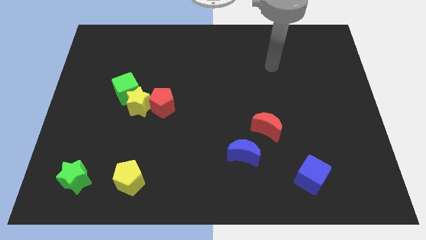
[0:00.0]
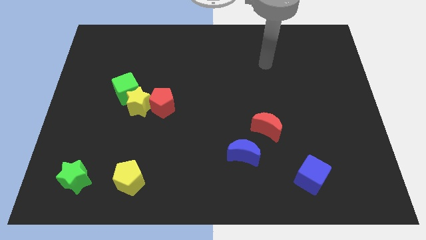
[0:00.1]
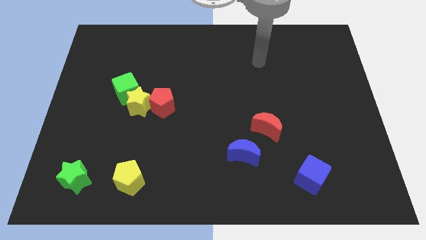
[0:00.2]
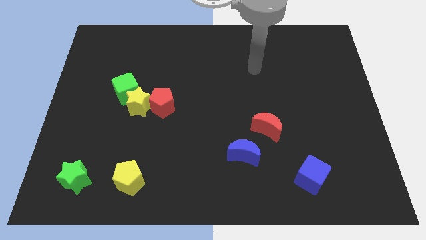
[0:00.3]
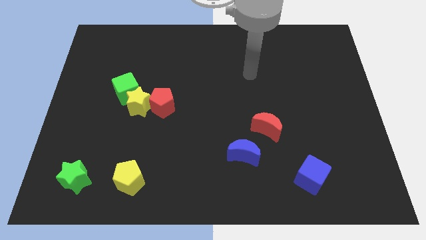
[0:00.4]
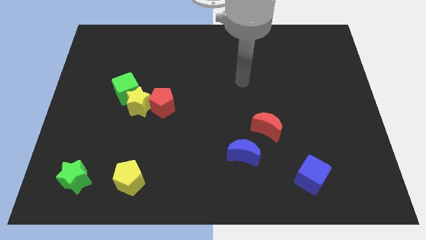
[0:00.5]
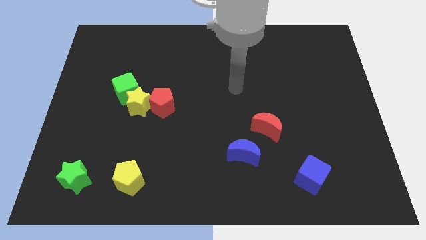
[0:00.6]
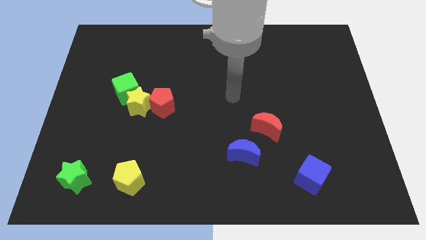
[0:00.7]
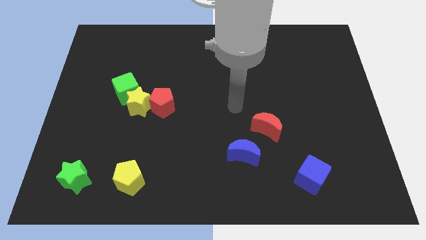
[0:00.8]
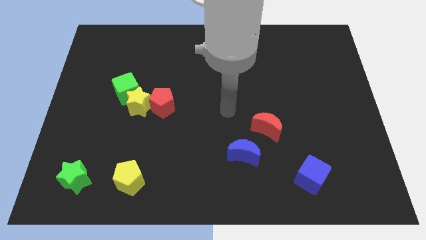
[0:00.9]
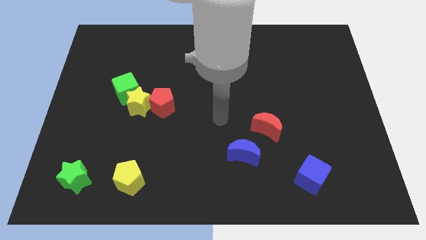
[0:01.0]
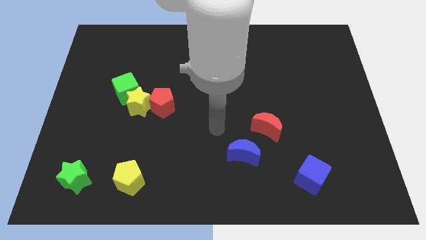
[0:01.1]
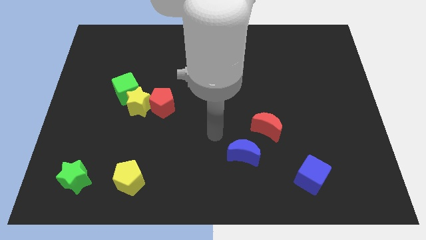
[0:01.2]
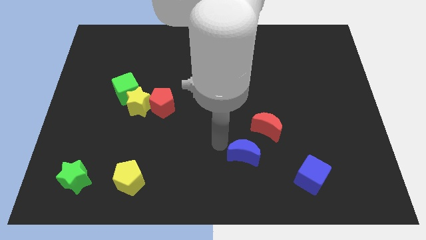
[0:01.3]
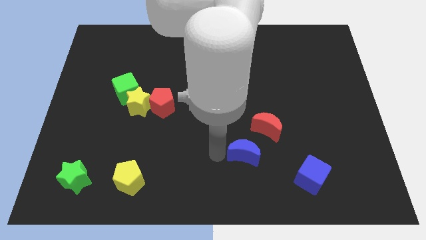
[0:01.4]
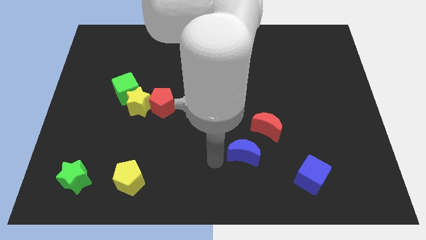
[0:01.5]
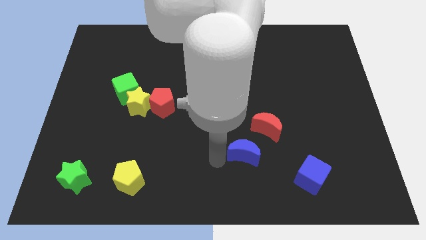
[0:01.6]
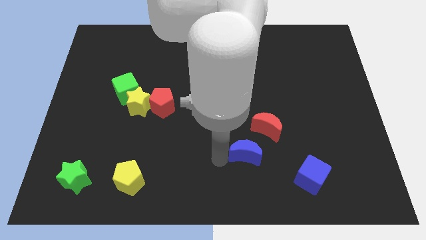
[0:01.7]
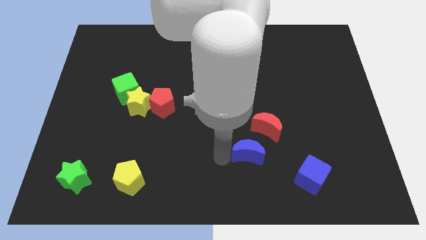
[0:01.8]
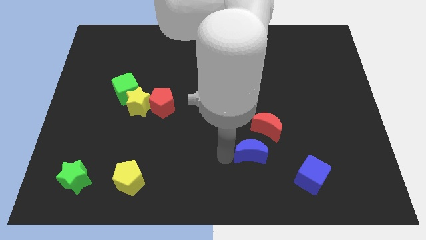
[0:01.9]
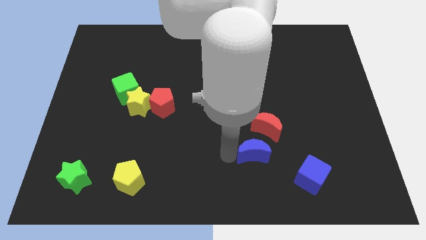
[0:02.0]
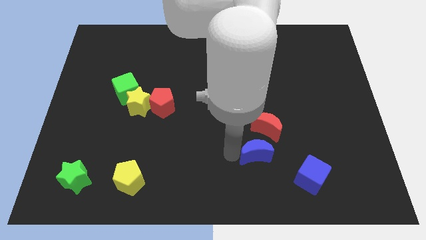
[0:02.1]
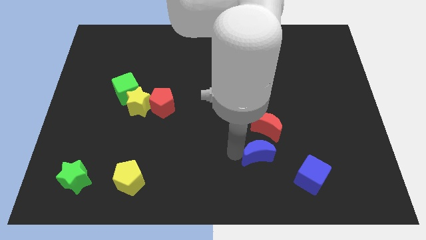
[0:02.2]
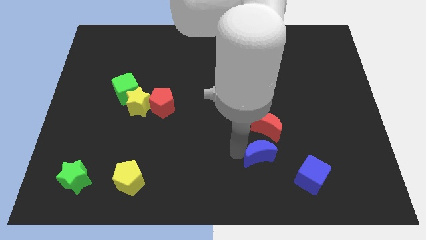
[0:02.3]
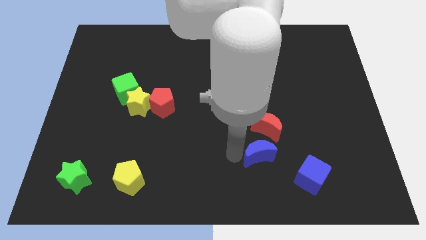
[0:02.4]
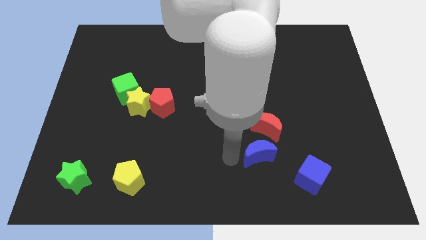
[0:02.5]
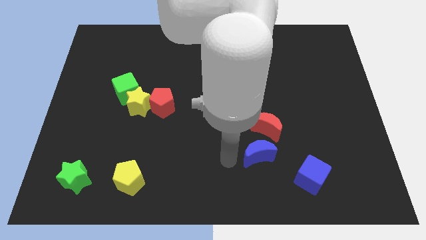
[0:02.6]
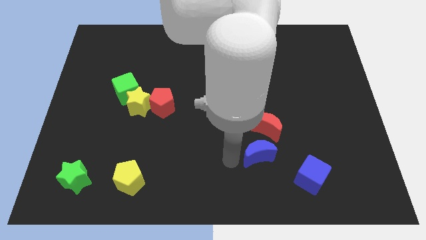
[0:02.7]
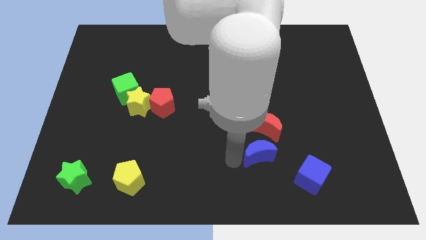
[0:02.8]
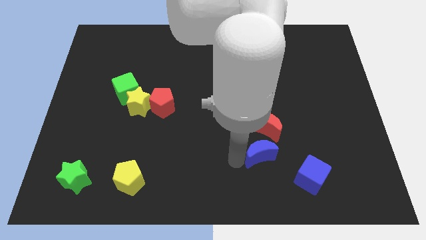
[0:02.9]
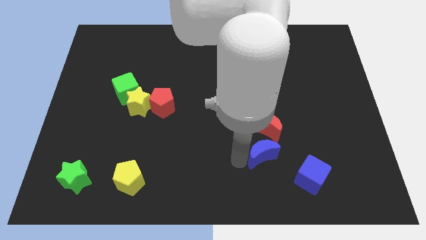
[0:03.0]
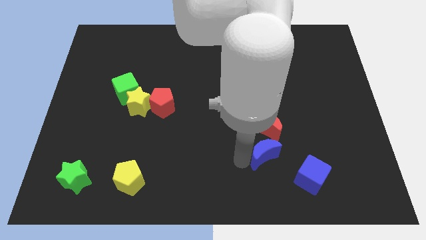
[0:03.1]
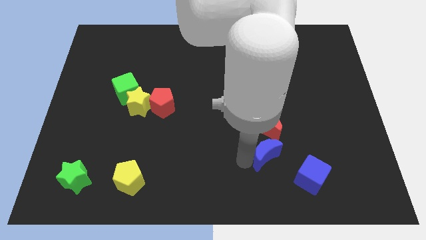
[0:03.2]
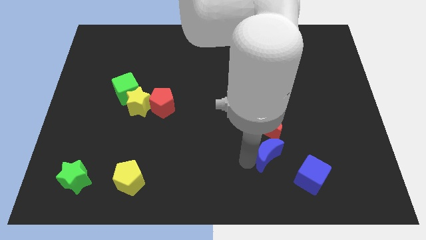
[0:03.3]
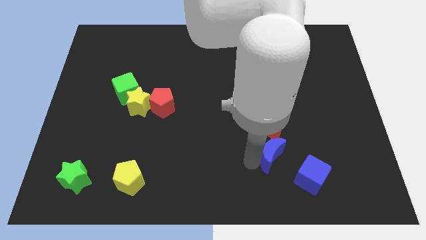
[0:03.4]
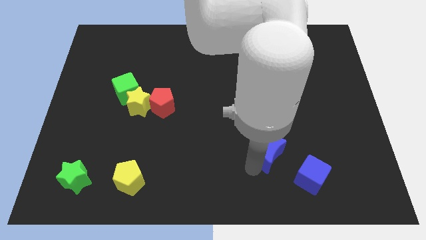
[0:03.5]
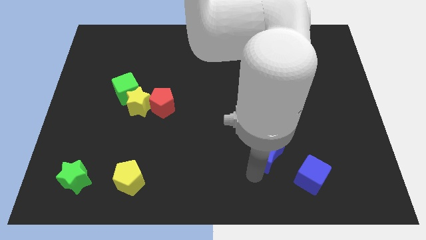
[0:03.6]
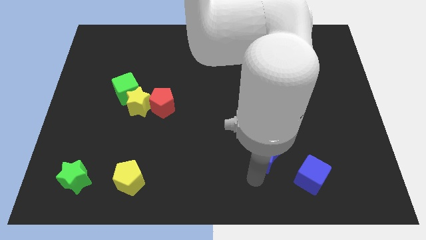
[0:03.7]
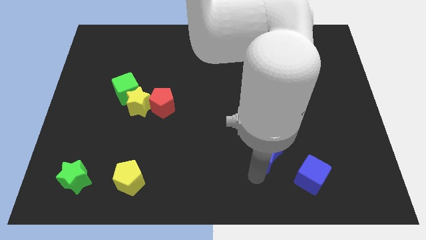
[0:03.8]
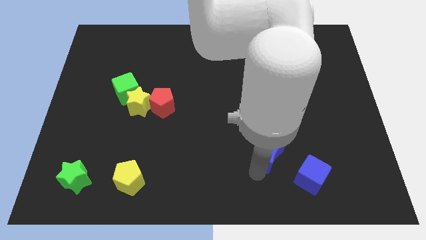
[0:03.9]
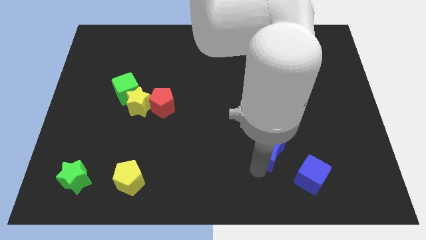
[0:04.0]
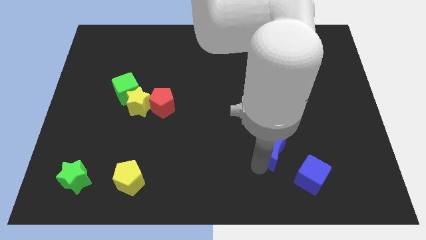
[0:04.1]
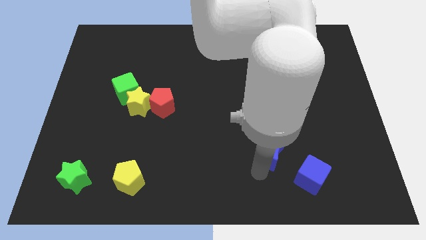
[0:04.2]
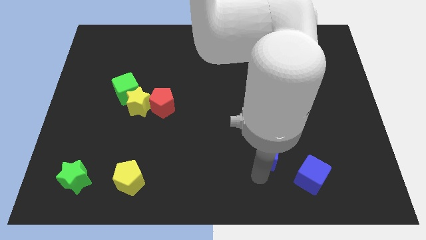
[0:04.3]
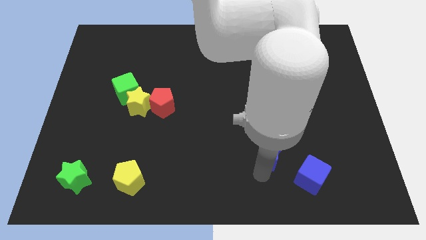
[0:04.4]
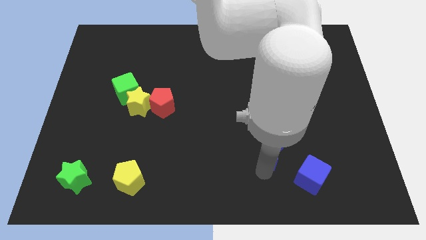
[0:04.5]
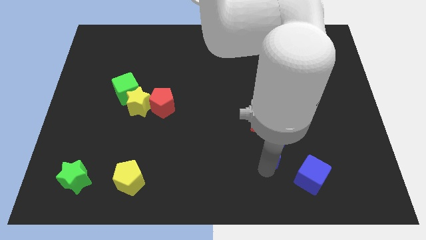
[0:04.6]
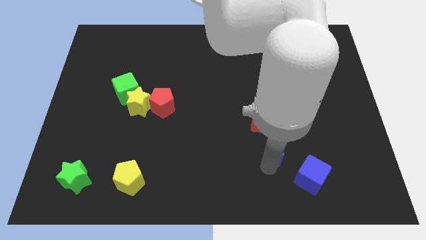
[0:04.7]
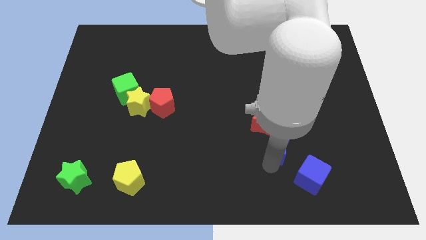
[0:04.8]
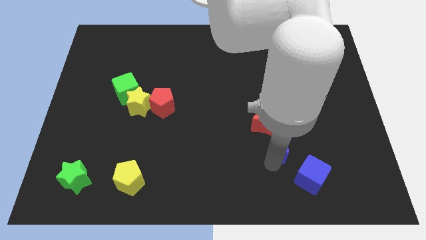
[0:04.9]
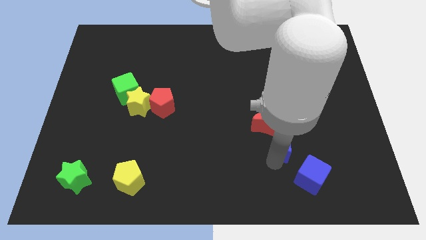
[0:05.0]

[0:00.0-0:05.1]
slightly slide the blue moon diagonally up and right

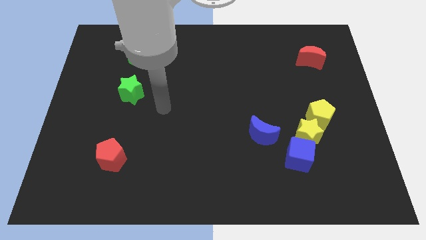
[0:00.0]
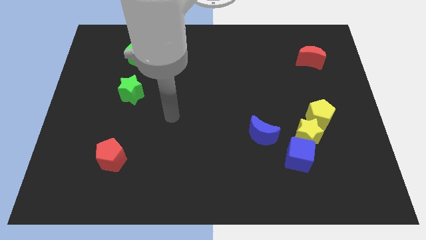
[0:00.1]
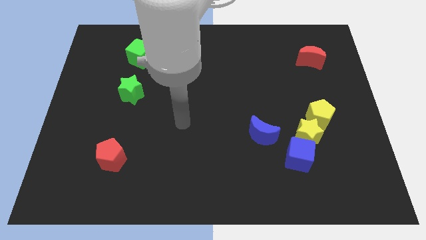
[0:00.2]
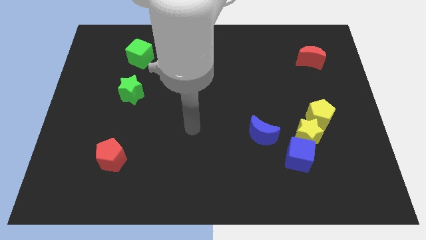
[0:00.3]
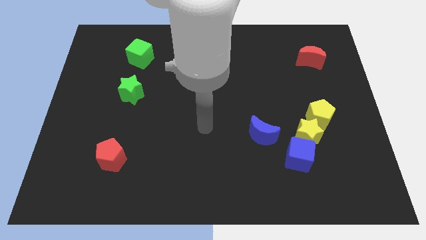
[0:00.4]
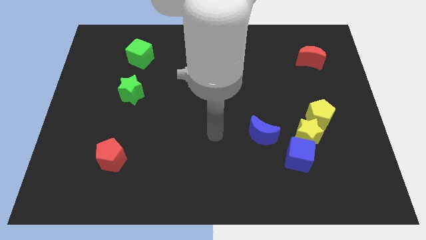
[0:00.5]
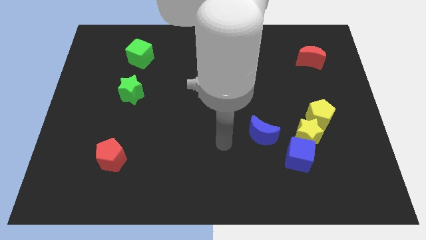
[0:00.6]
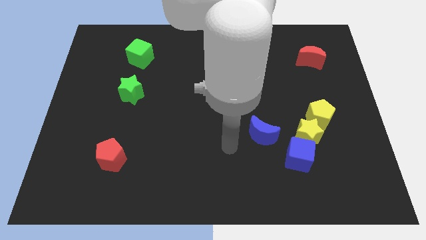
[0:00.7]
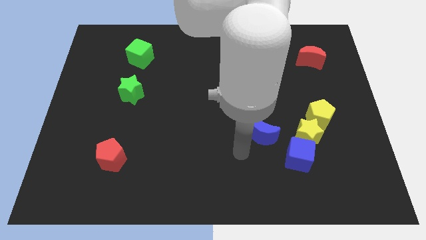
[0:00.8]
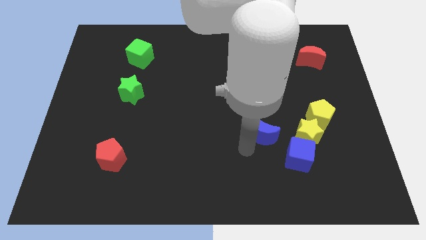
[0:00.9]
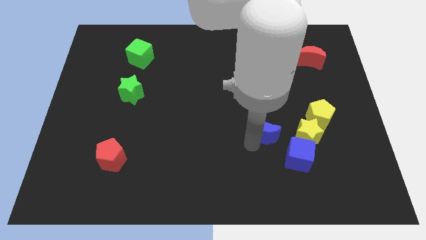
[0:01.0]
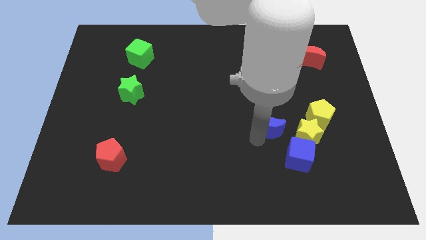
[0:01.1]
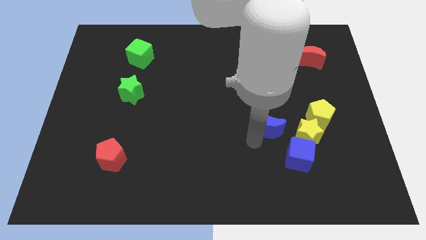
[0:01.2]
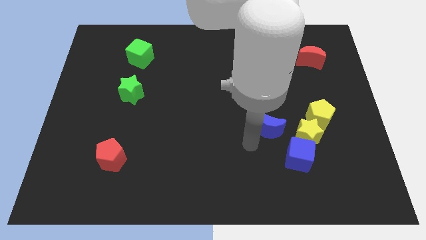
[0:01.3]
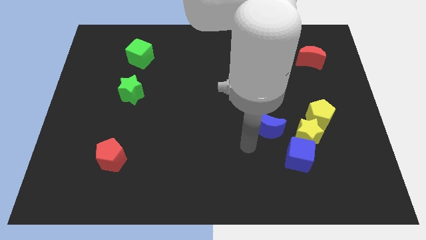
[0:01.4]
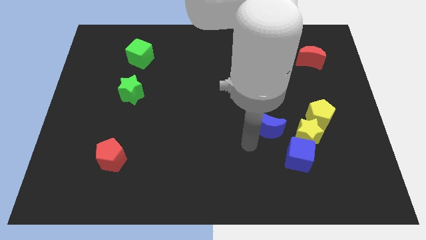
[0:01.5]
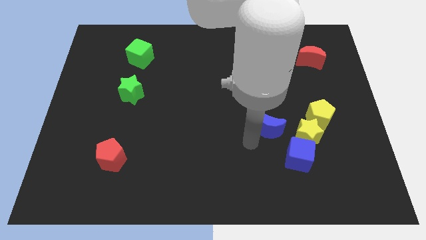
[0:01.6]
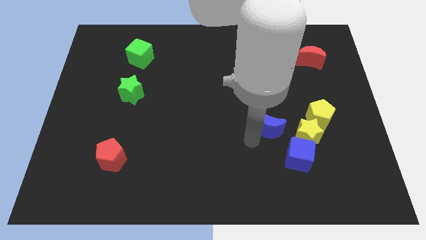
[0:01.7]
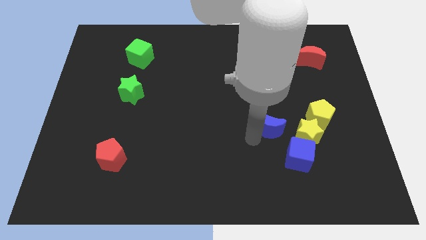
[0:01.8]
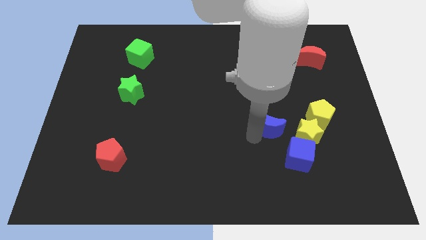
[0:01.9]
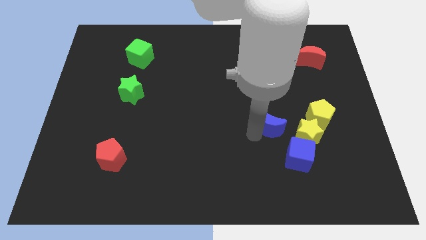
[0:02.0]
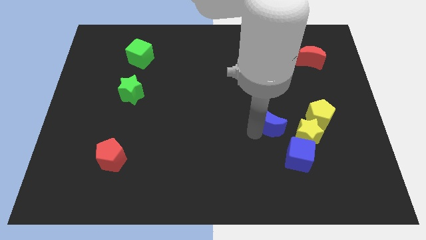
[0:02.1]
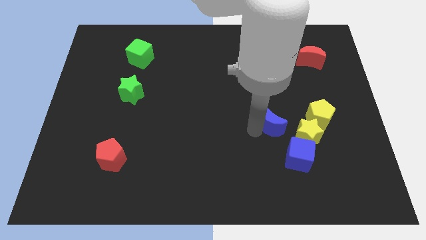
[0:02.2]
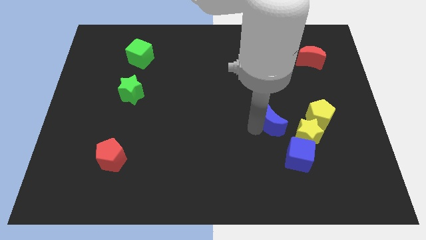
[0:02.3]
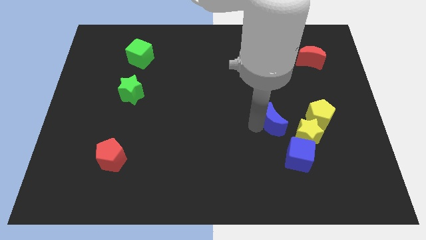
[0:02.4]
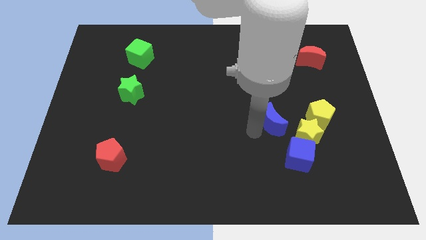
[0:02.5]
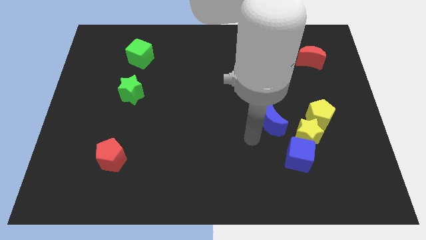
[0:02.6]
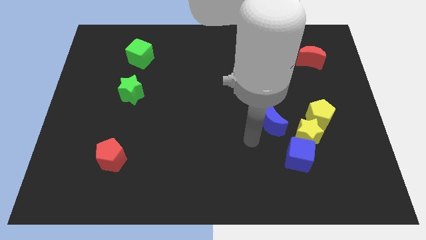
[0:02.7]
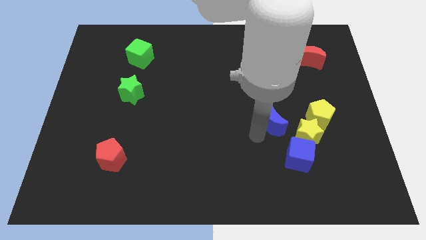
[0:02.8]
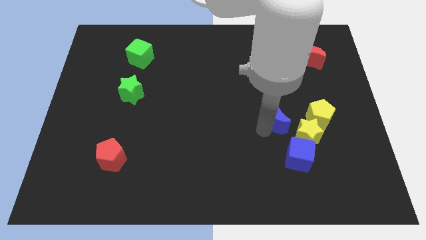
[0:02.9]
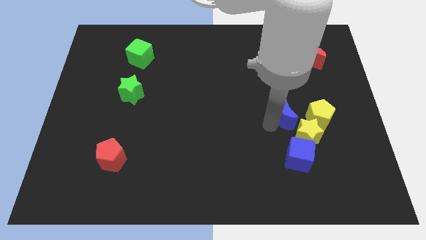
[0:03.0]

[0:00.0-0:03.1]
push the blue moon a little bit upwards and to the right diagonally
